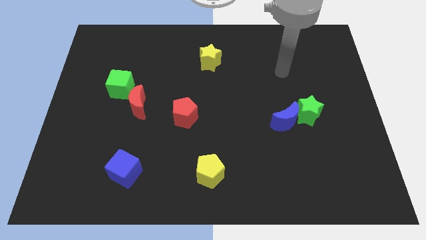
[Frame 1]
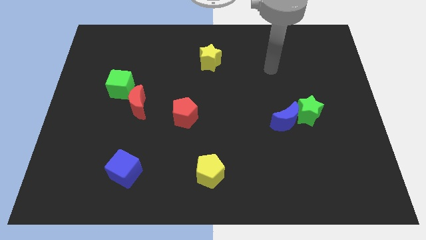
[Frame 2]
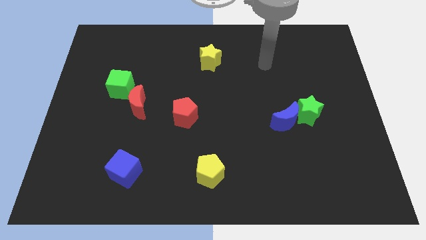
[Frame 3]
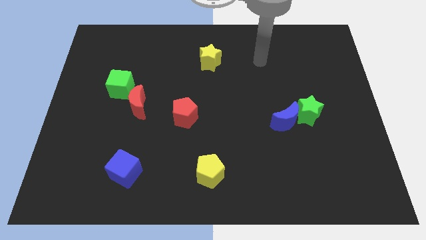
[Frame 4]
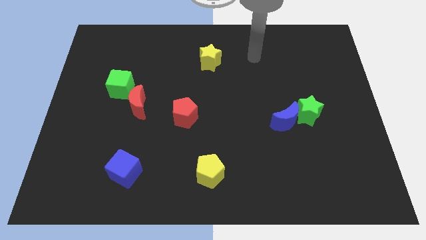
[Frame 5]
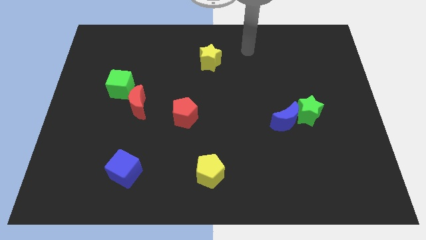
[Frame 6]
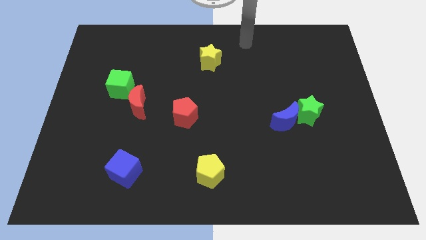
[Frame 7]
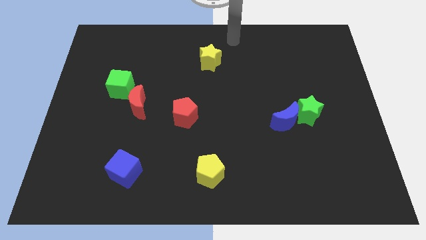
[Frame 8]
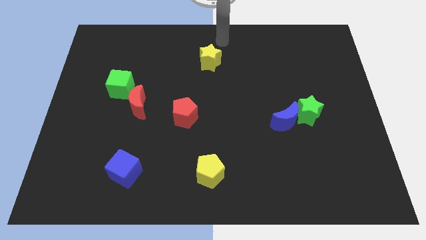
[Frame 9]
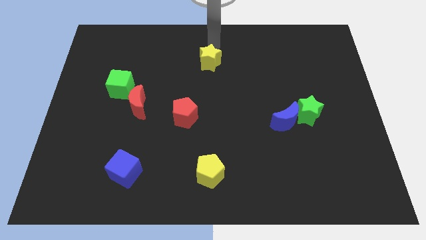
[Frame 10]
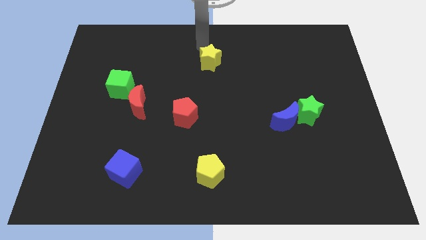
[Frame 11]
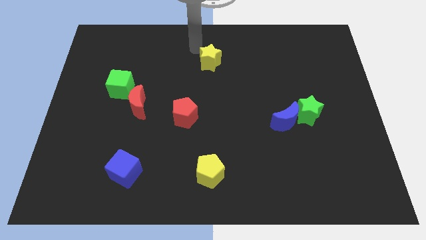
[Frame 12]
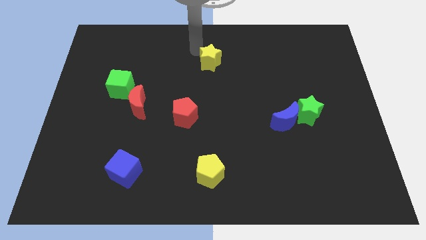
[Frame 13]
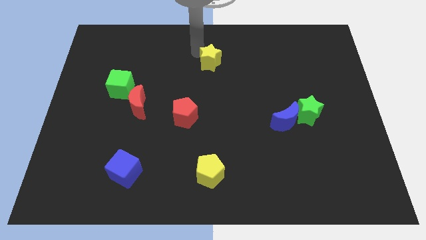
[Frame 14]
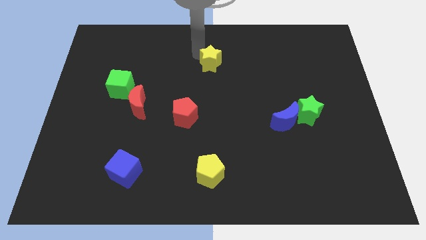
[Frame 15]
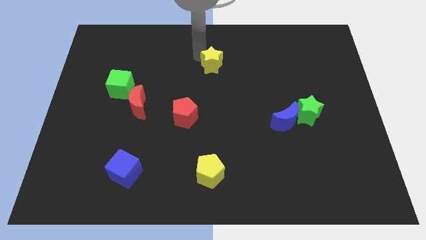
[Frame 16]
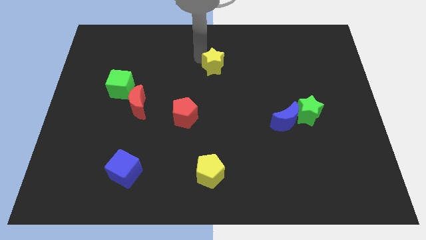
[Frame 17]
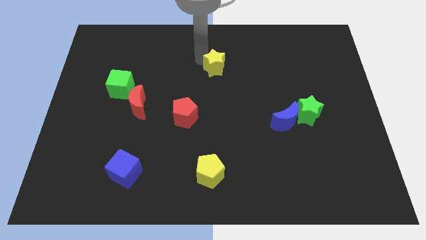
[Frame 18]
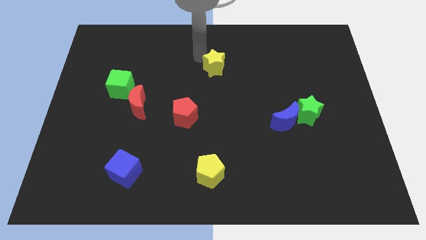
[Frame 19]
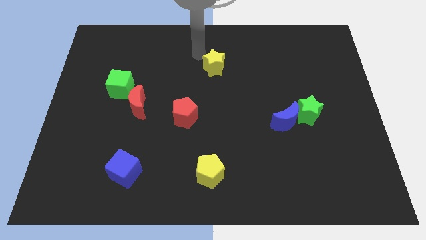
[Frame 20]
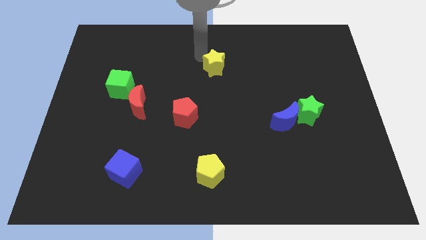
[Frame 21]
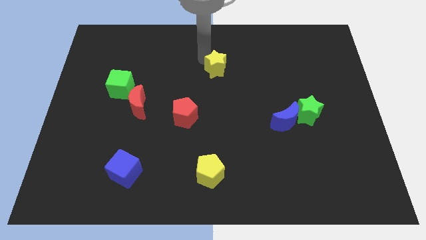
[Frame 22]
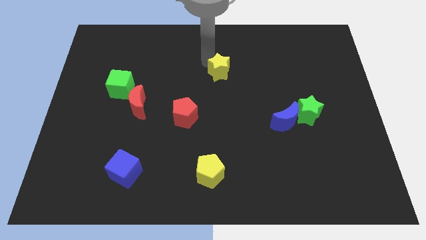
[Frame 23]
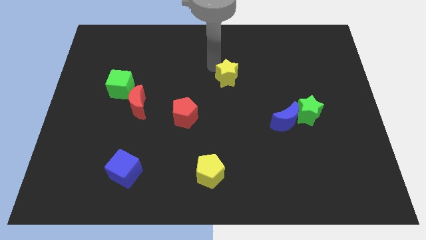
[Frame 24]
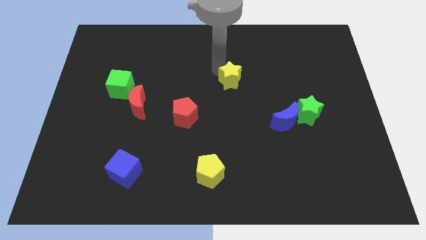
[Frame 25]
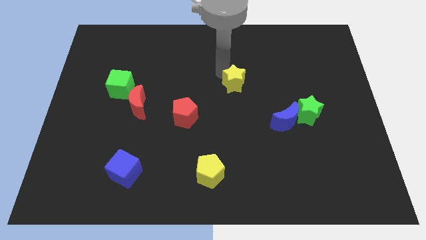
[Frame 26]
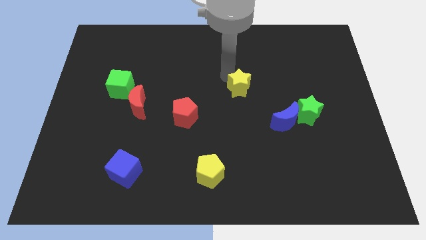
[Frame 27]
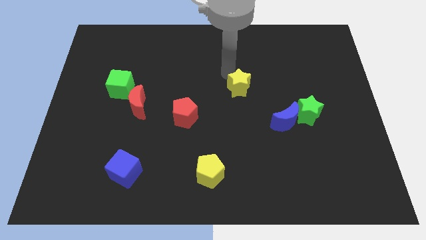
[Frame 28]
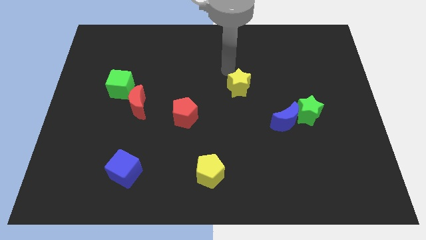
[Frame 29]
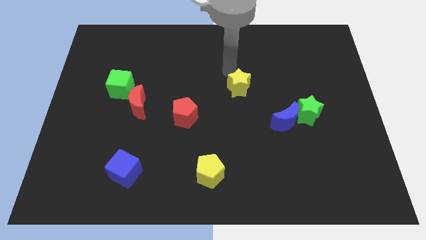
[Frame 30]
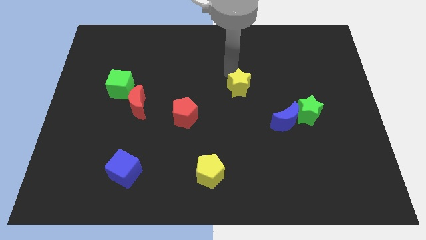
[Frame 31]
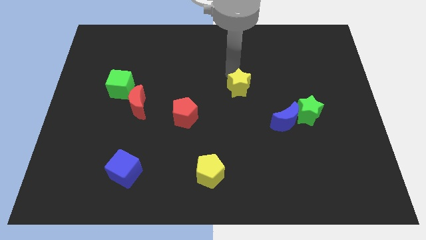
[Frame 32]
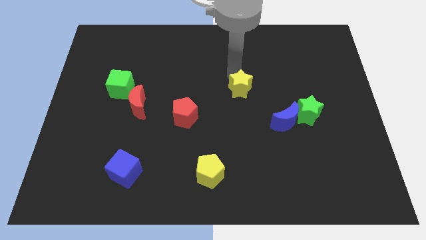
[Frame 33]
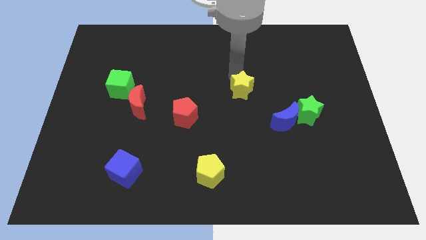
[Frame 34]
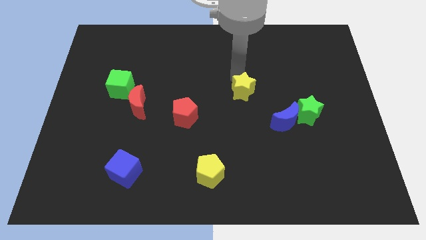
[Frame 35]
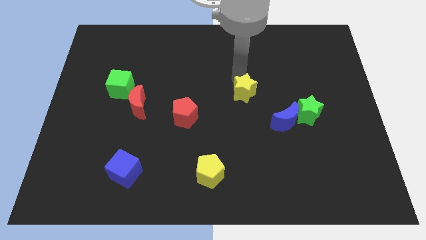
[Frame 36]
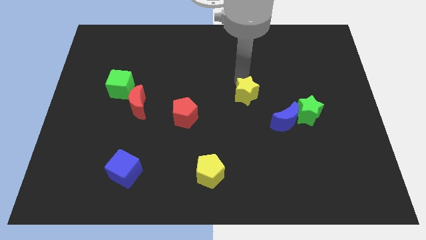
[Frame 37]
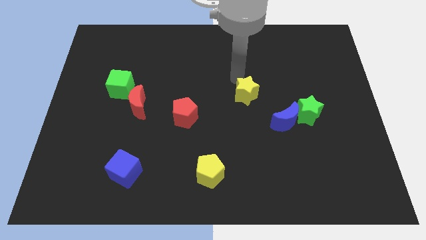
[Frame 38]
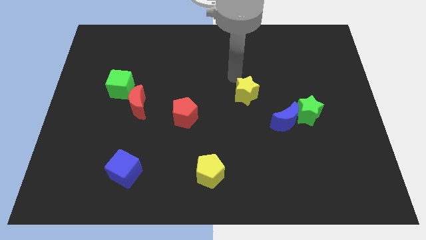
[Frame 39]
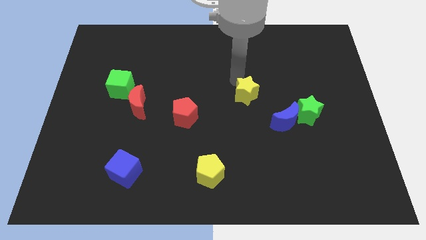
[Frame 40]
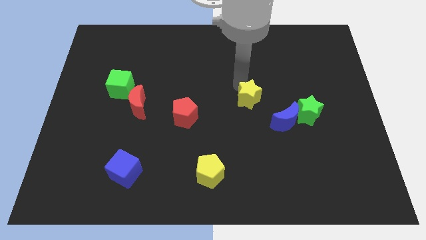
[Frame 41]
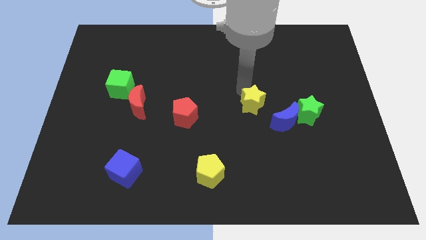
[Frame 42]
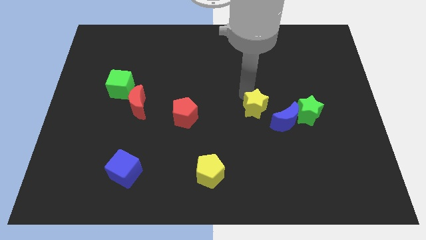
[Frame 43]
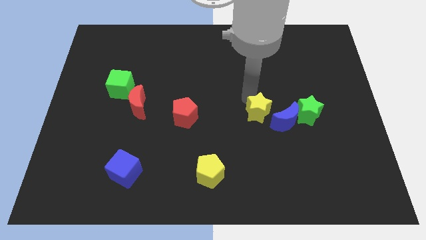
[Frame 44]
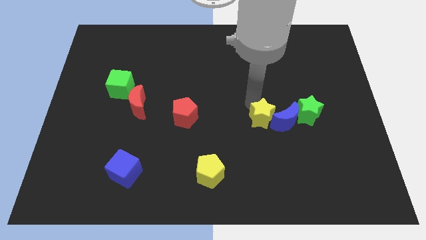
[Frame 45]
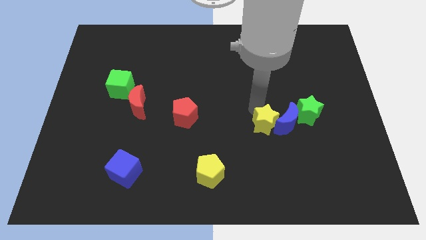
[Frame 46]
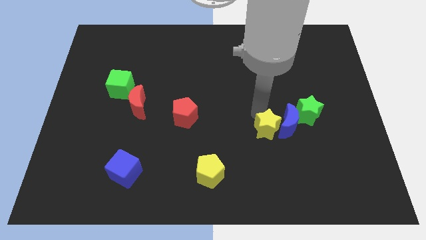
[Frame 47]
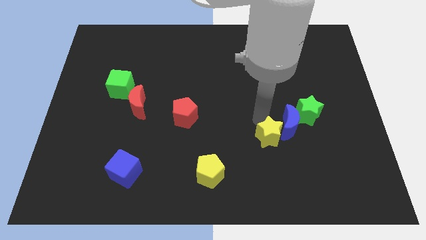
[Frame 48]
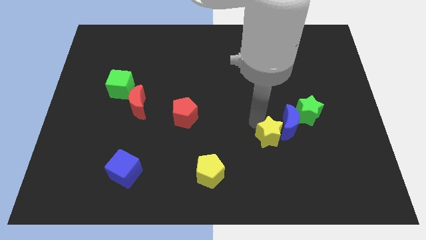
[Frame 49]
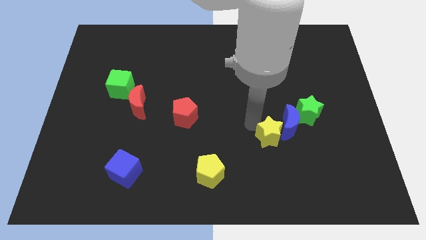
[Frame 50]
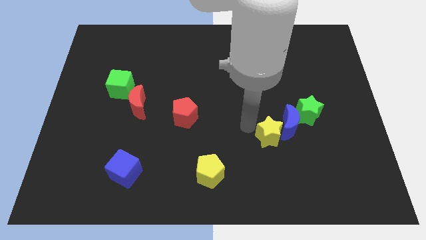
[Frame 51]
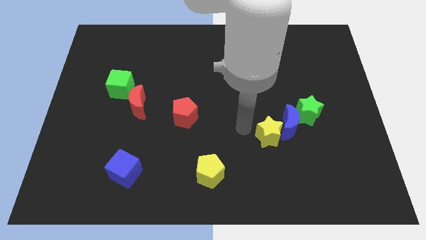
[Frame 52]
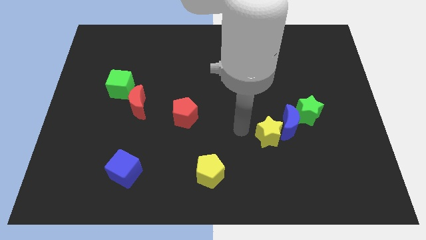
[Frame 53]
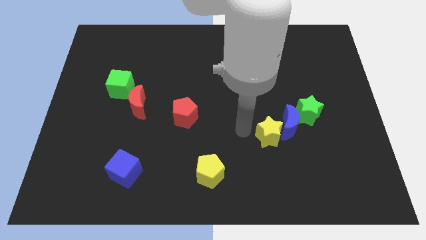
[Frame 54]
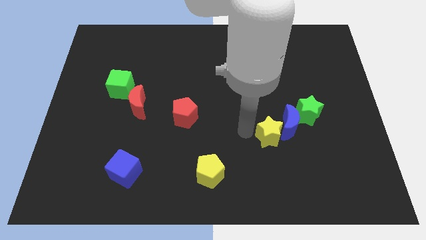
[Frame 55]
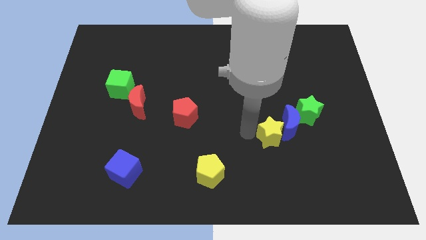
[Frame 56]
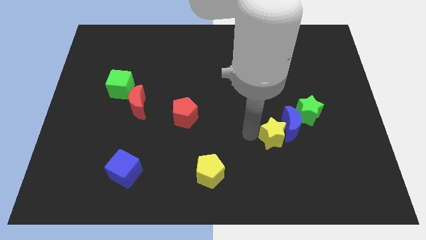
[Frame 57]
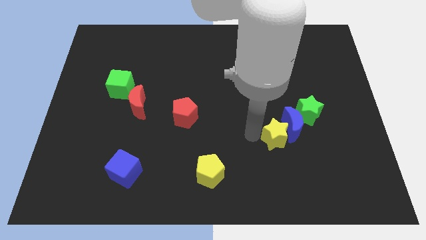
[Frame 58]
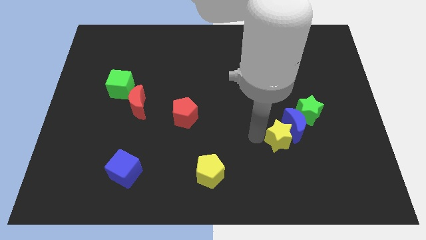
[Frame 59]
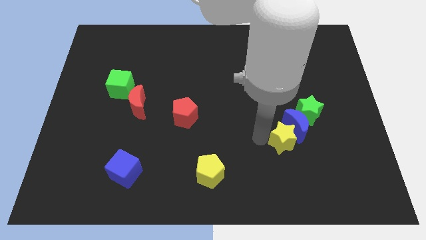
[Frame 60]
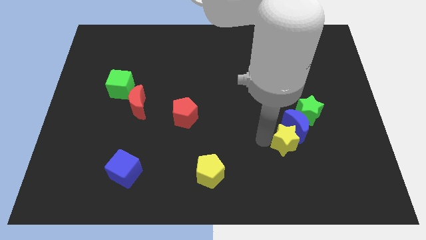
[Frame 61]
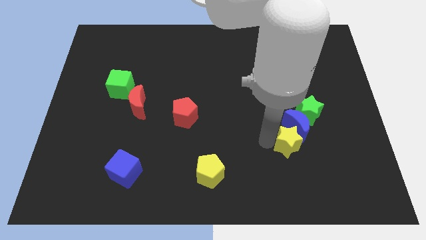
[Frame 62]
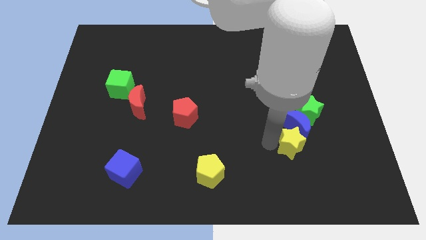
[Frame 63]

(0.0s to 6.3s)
push the yellow star to the bottom of the green star

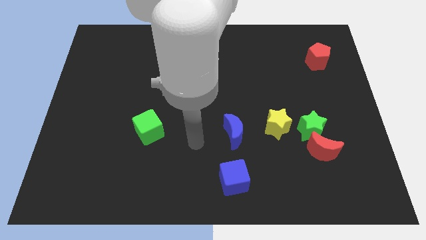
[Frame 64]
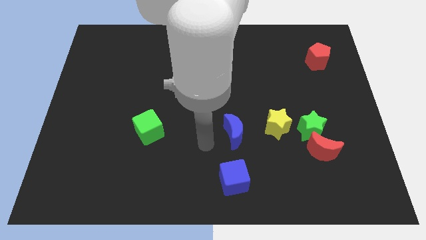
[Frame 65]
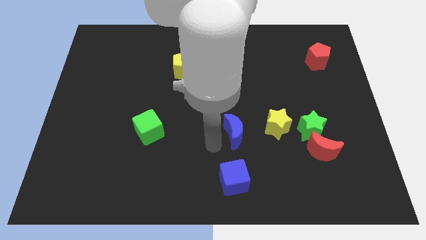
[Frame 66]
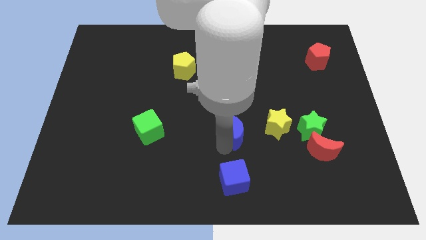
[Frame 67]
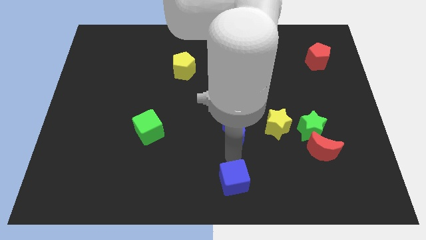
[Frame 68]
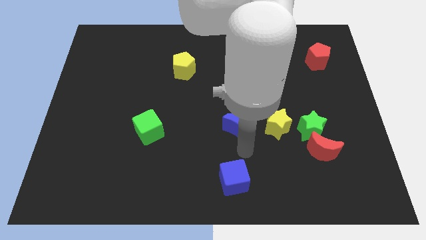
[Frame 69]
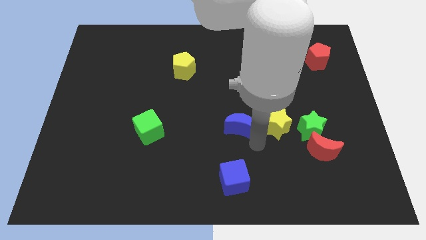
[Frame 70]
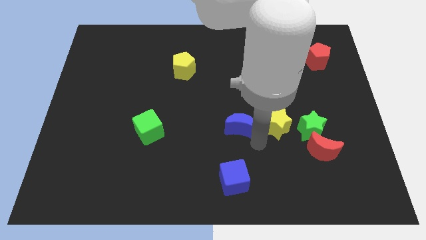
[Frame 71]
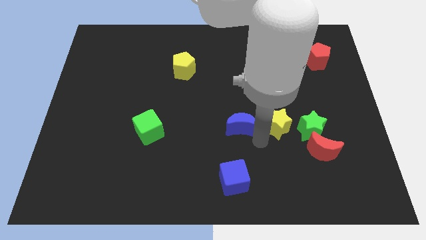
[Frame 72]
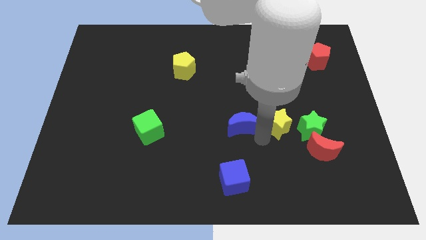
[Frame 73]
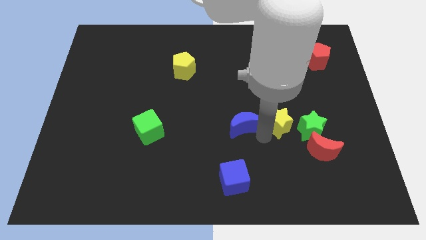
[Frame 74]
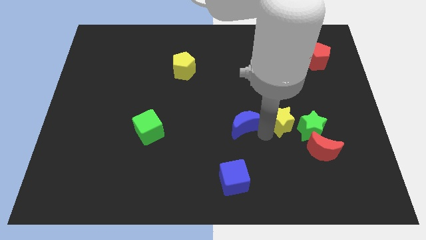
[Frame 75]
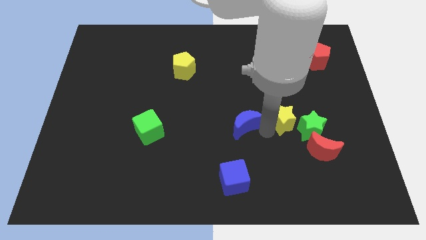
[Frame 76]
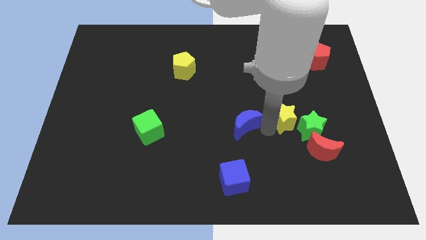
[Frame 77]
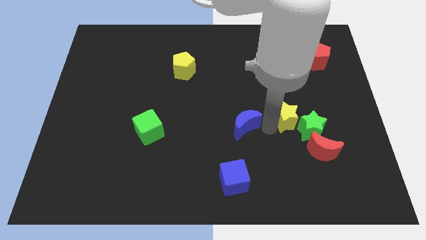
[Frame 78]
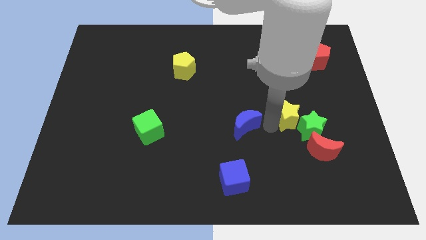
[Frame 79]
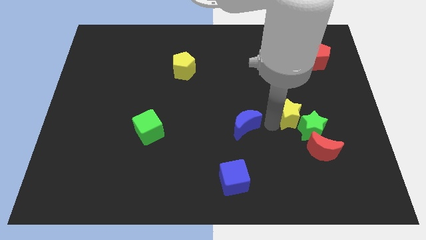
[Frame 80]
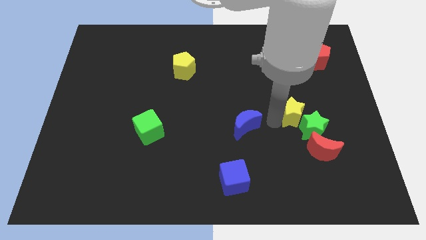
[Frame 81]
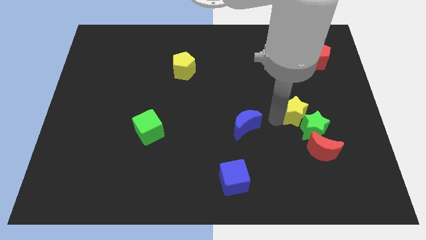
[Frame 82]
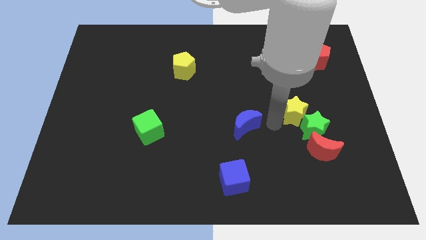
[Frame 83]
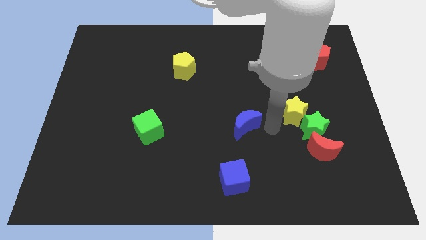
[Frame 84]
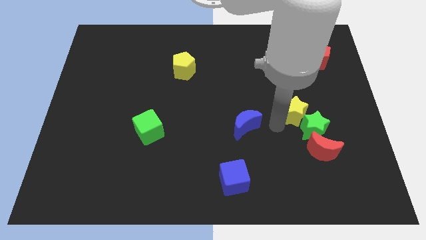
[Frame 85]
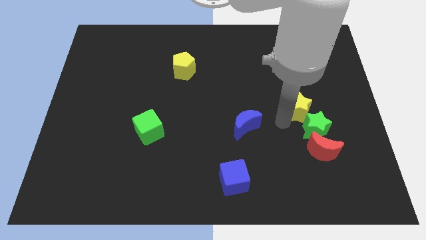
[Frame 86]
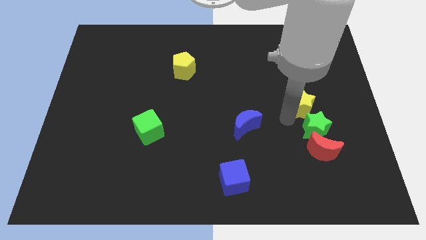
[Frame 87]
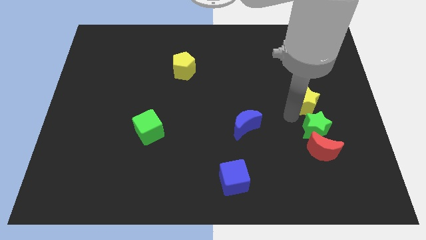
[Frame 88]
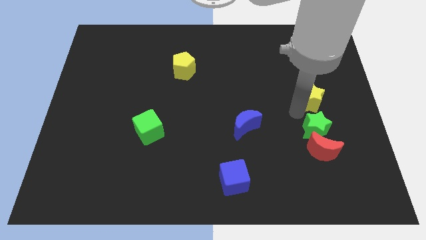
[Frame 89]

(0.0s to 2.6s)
slide the yellow star to the bottom side of the red pentagon
